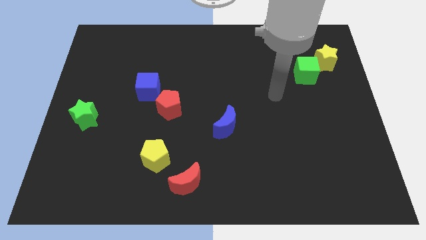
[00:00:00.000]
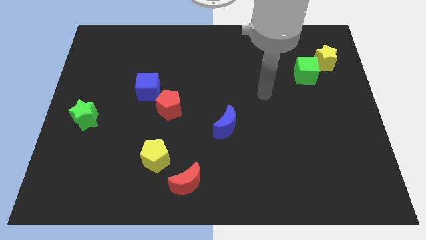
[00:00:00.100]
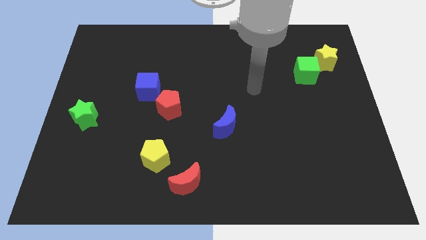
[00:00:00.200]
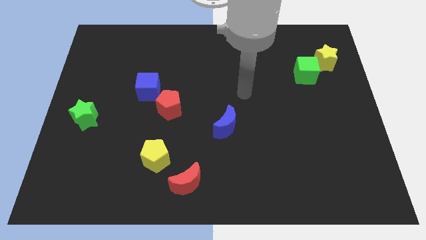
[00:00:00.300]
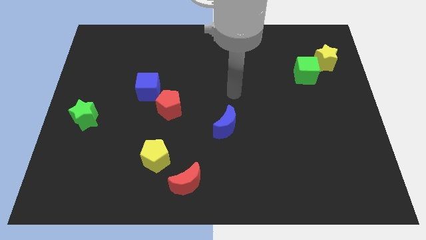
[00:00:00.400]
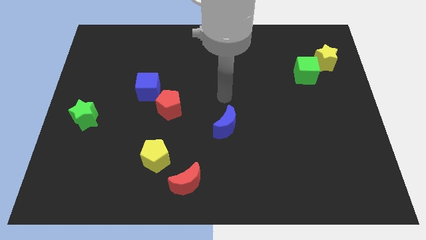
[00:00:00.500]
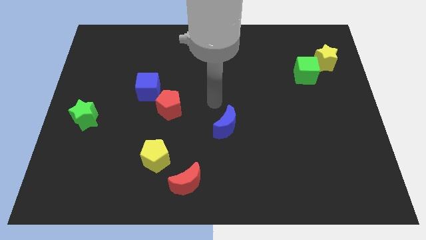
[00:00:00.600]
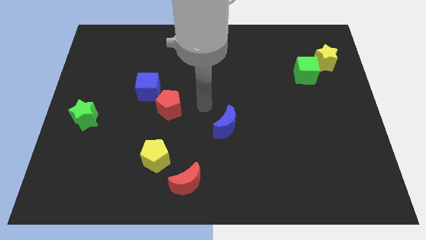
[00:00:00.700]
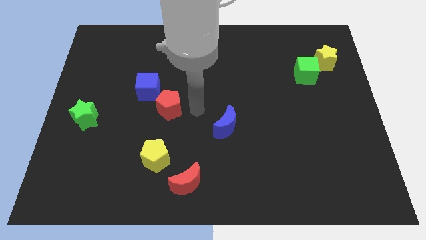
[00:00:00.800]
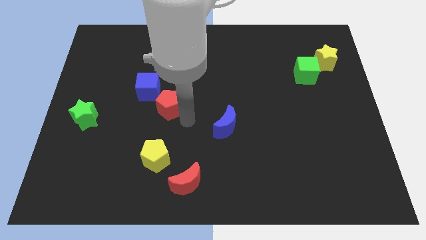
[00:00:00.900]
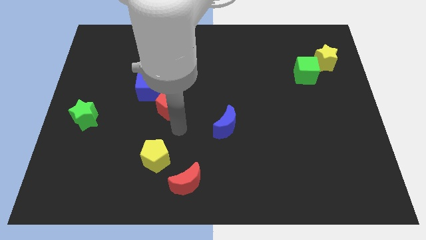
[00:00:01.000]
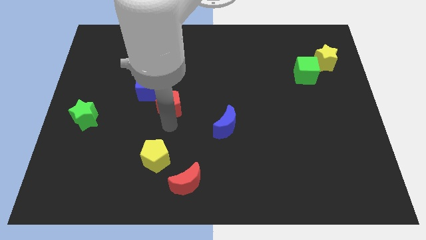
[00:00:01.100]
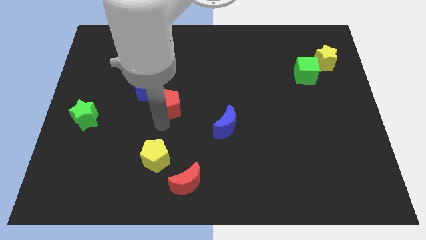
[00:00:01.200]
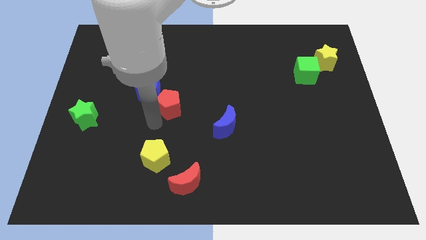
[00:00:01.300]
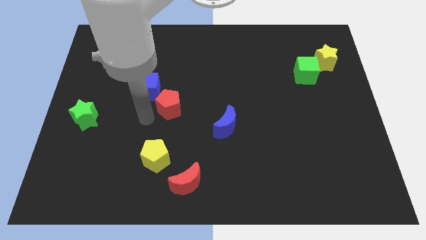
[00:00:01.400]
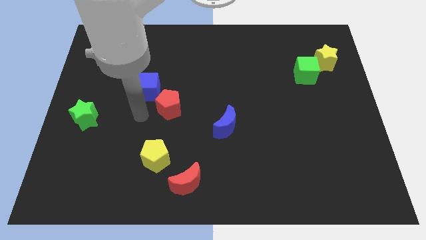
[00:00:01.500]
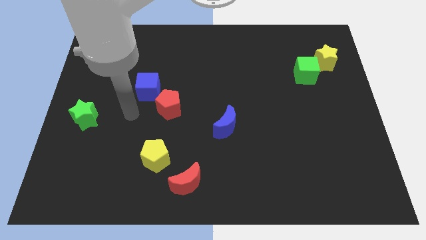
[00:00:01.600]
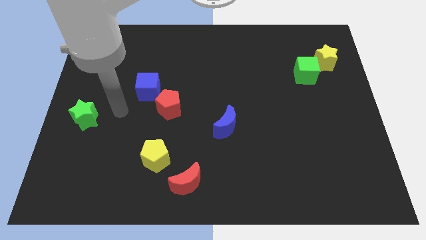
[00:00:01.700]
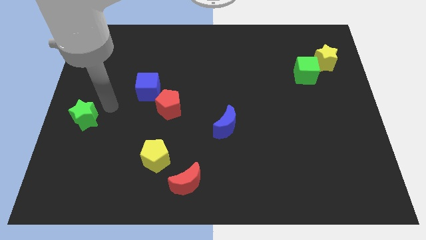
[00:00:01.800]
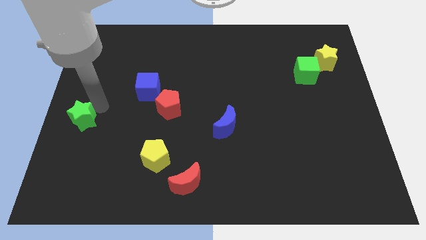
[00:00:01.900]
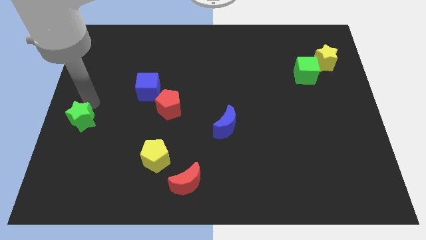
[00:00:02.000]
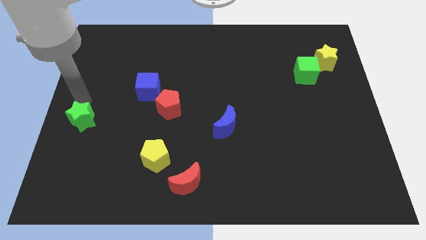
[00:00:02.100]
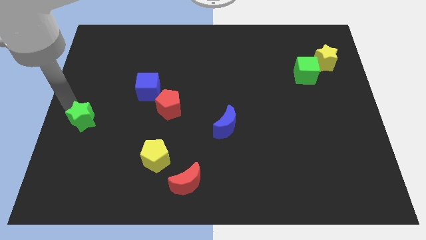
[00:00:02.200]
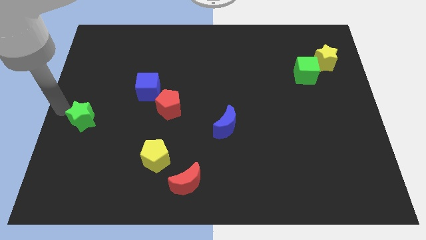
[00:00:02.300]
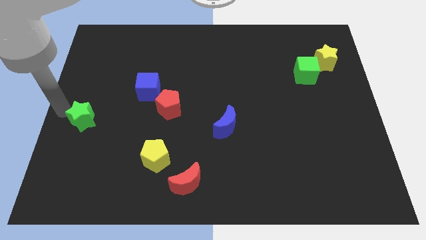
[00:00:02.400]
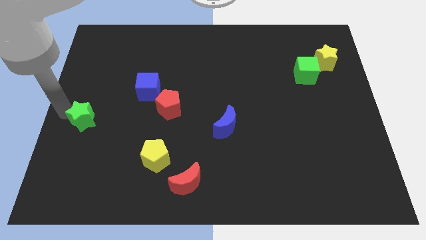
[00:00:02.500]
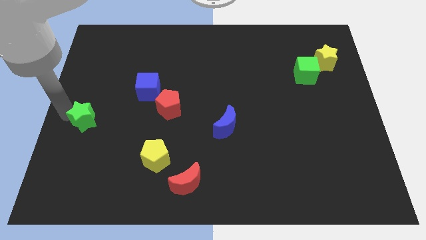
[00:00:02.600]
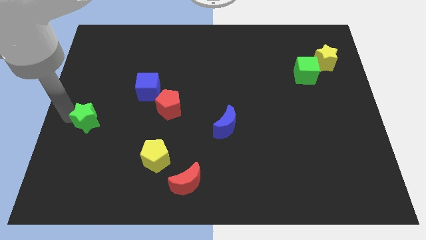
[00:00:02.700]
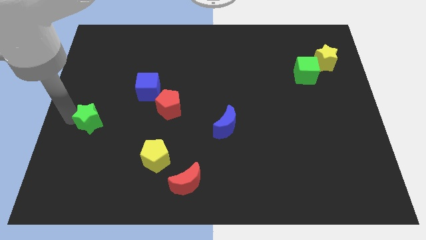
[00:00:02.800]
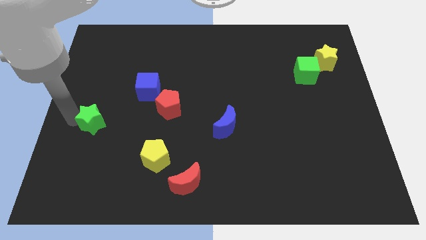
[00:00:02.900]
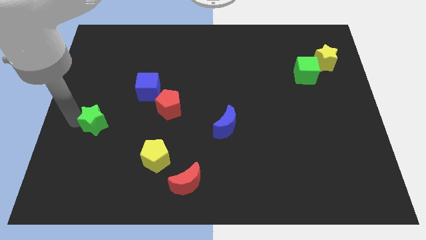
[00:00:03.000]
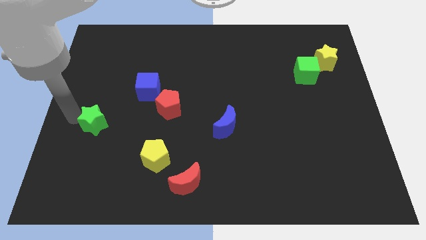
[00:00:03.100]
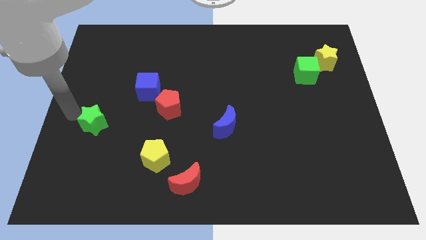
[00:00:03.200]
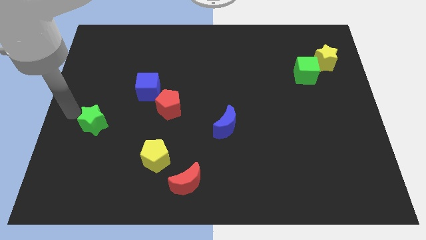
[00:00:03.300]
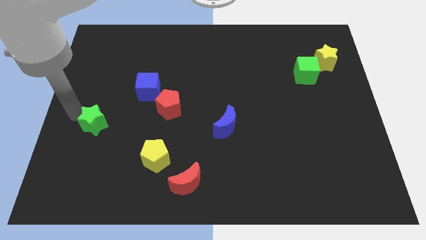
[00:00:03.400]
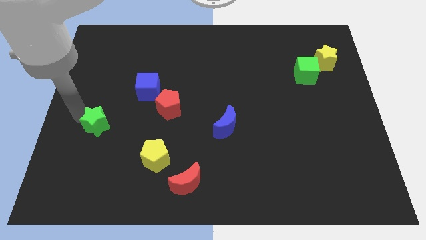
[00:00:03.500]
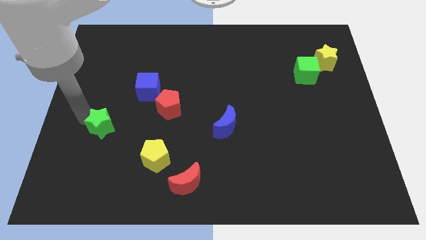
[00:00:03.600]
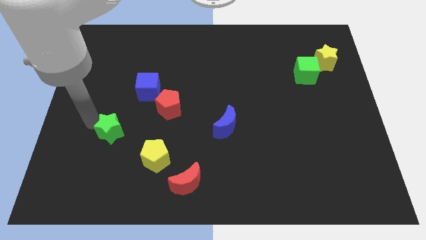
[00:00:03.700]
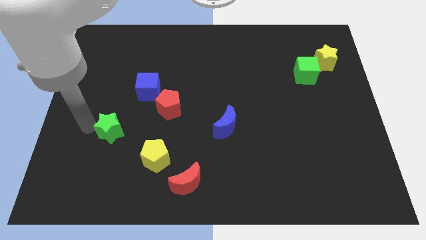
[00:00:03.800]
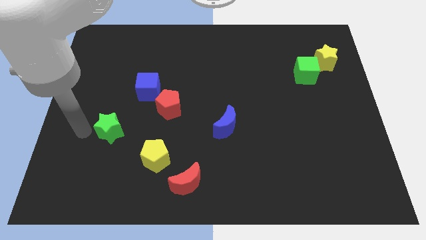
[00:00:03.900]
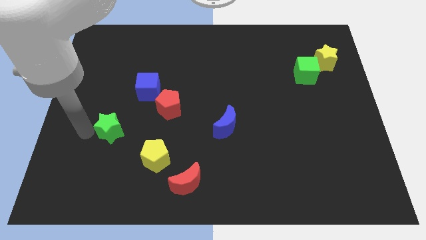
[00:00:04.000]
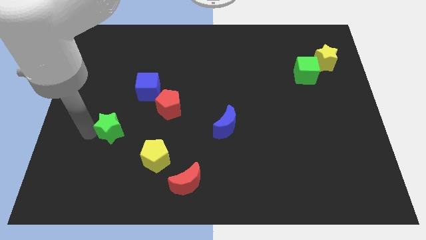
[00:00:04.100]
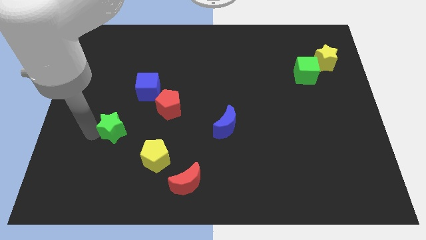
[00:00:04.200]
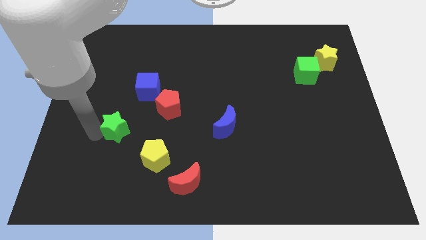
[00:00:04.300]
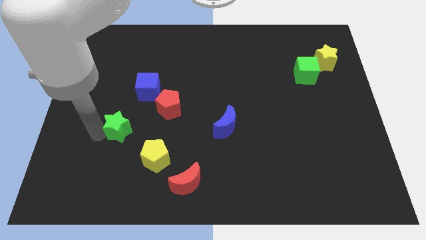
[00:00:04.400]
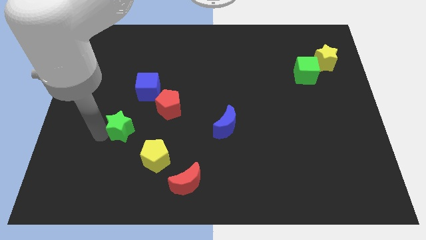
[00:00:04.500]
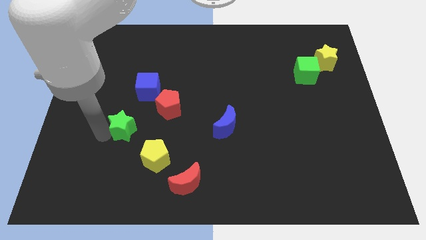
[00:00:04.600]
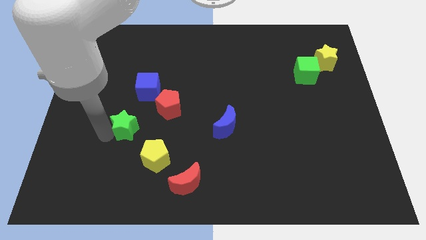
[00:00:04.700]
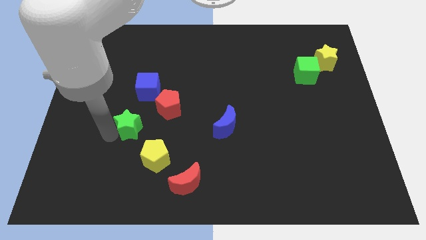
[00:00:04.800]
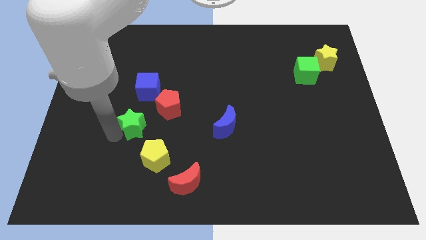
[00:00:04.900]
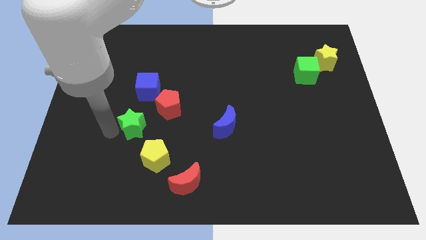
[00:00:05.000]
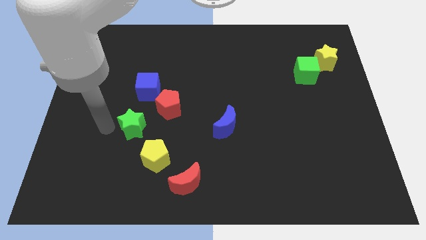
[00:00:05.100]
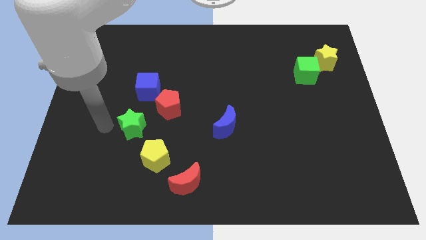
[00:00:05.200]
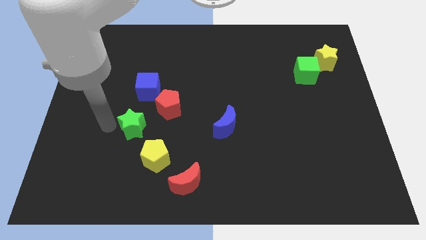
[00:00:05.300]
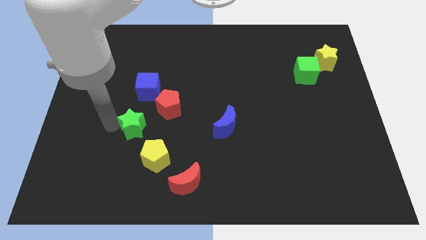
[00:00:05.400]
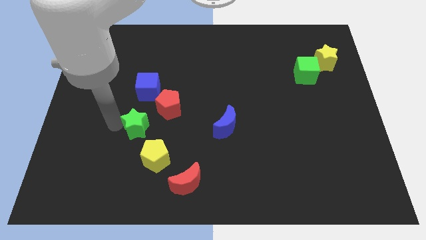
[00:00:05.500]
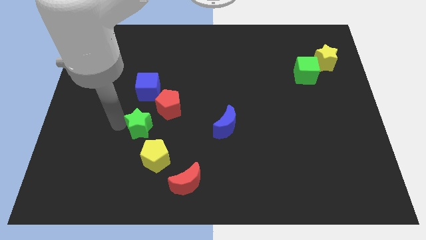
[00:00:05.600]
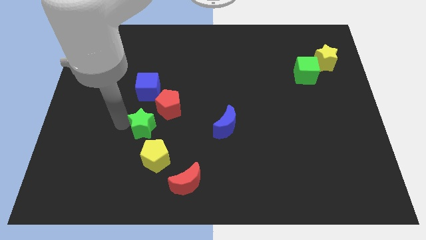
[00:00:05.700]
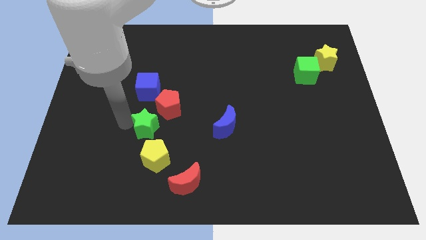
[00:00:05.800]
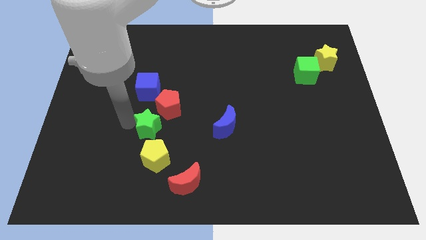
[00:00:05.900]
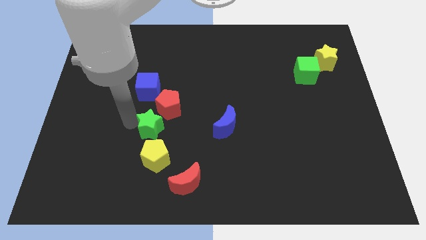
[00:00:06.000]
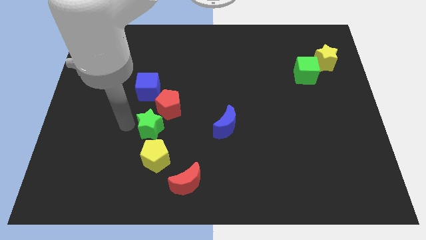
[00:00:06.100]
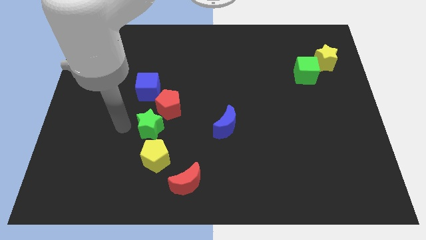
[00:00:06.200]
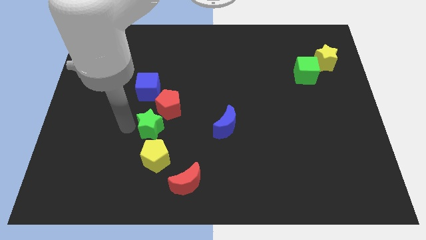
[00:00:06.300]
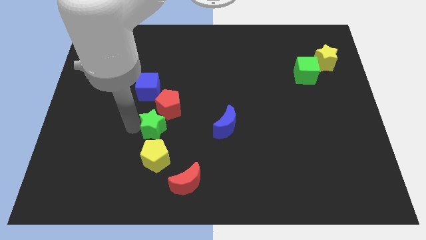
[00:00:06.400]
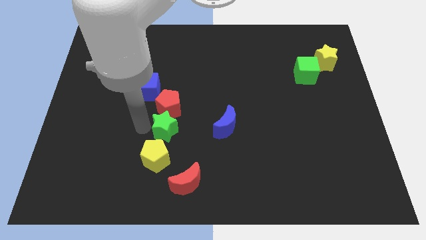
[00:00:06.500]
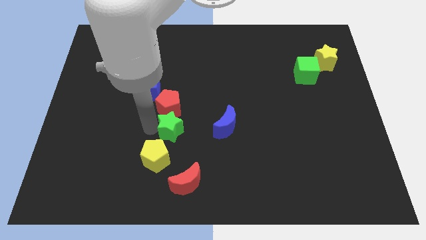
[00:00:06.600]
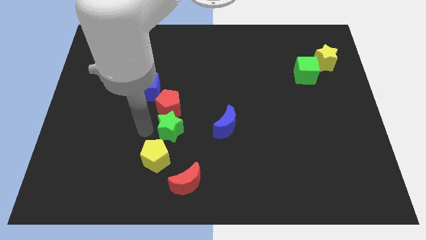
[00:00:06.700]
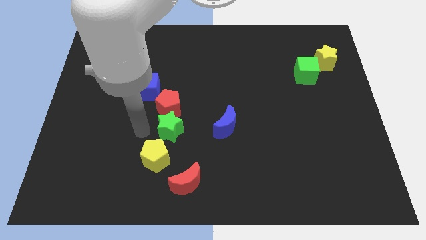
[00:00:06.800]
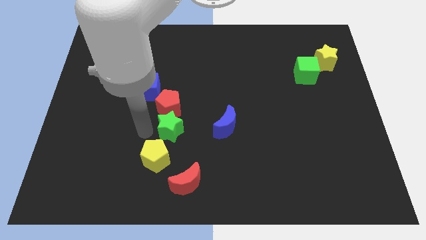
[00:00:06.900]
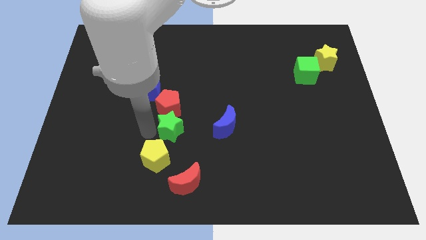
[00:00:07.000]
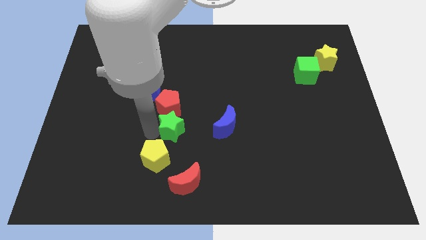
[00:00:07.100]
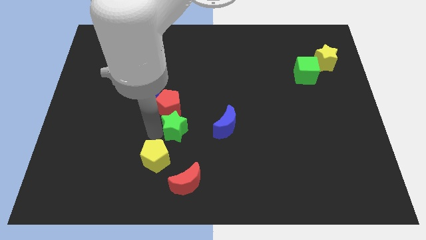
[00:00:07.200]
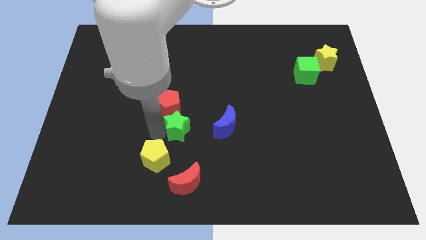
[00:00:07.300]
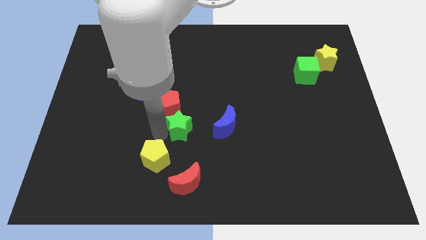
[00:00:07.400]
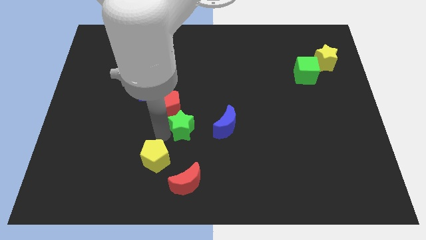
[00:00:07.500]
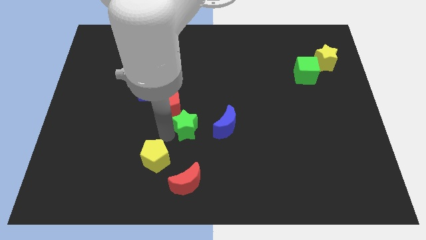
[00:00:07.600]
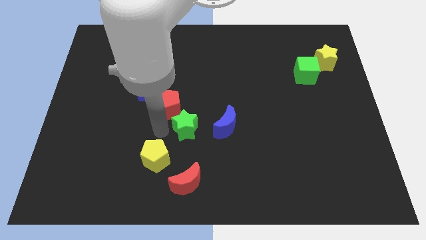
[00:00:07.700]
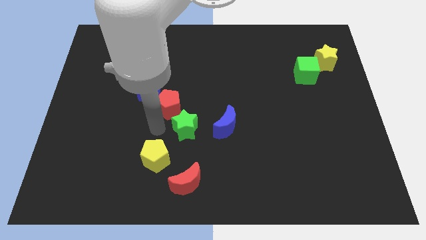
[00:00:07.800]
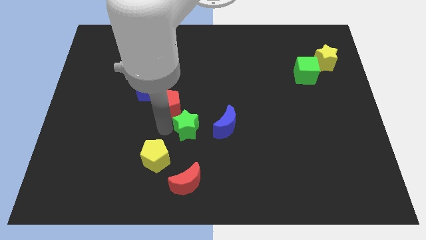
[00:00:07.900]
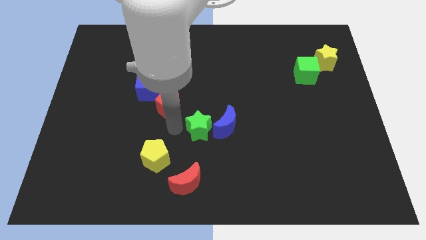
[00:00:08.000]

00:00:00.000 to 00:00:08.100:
move the green star towards the blue moon
